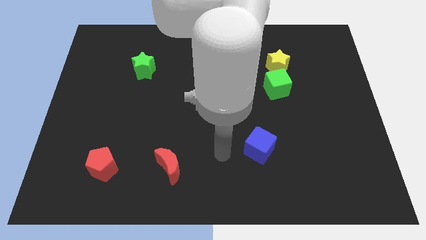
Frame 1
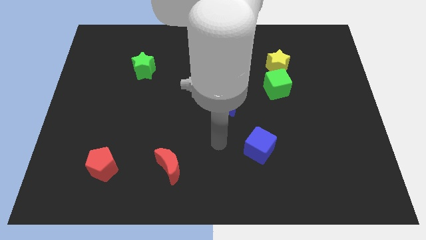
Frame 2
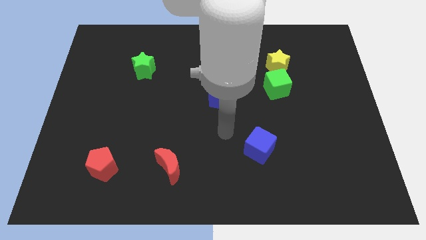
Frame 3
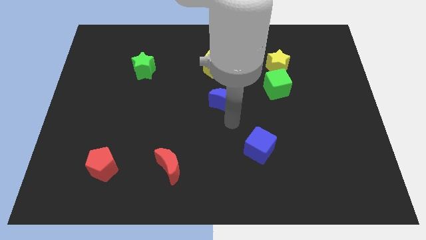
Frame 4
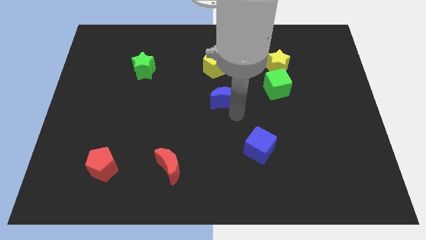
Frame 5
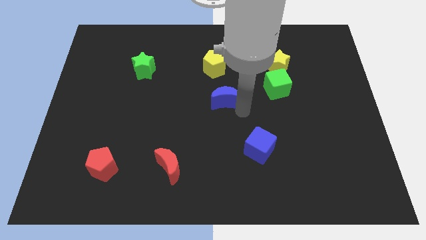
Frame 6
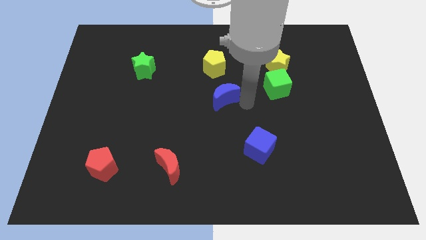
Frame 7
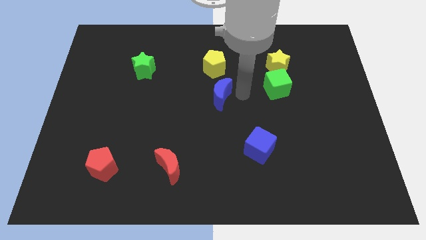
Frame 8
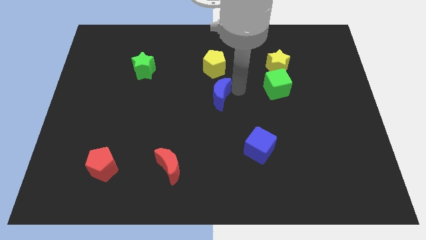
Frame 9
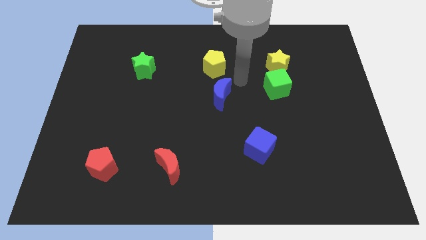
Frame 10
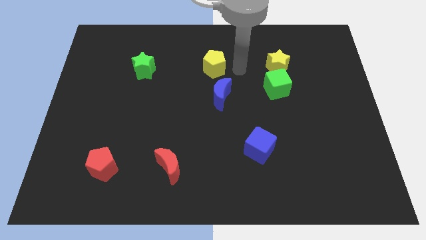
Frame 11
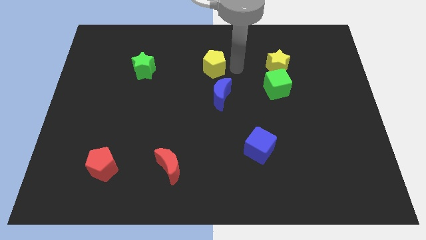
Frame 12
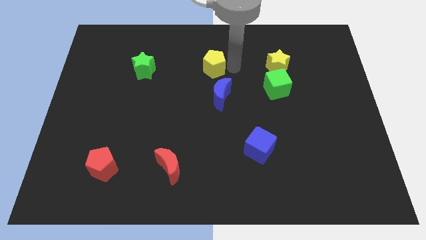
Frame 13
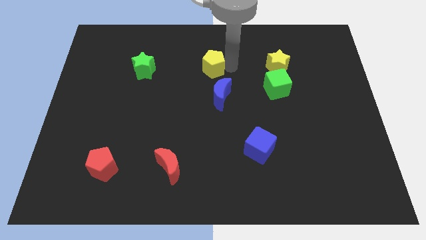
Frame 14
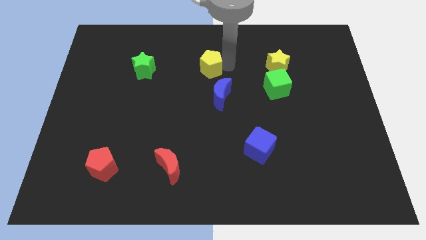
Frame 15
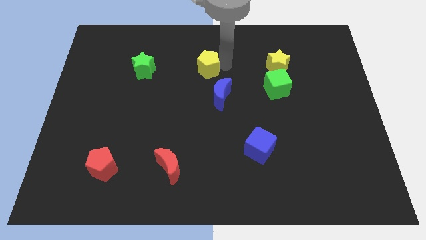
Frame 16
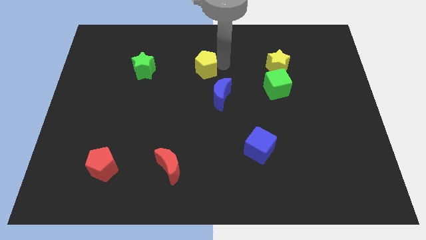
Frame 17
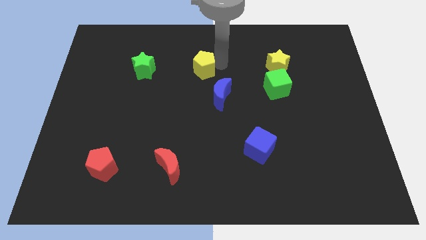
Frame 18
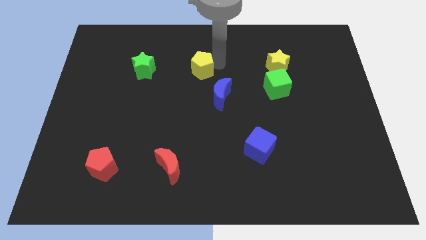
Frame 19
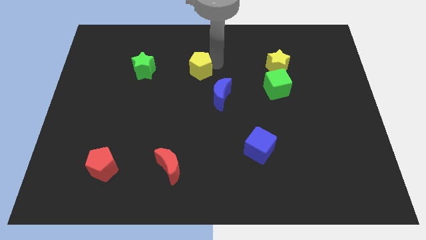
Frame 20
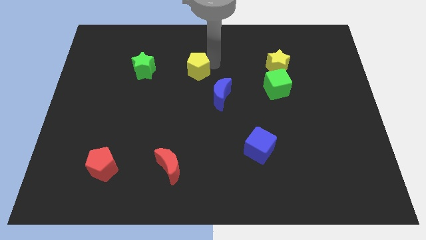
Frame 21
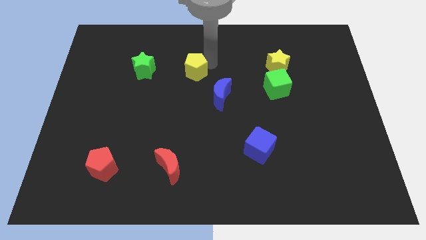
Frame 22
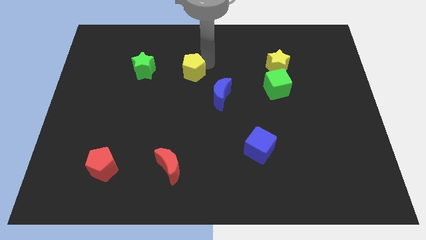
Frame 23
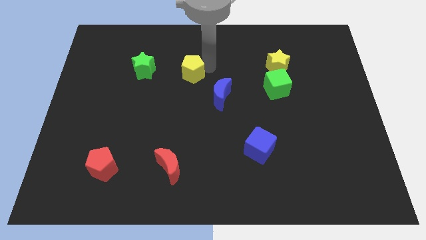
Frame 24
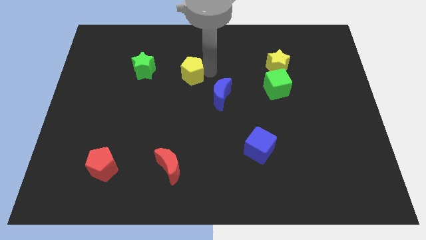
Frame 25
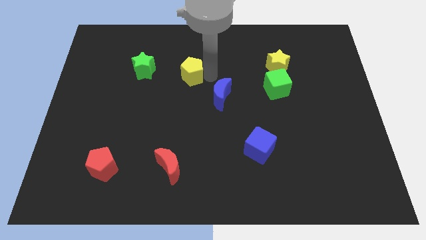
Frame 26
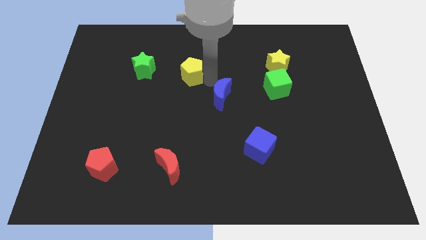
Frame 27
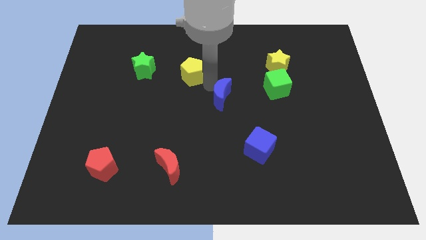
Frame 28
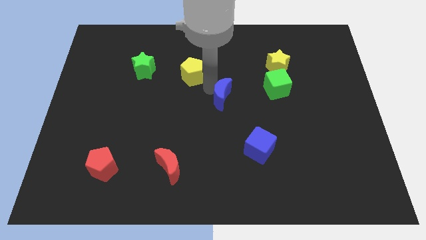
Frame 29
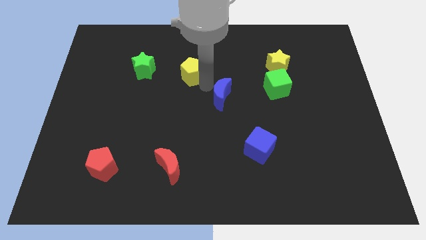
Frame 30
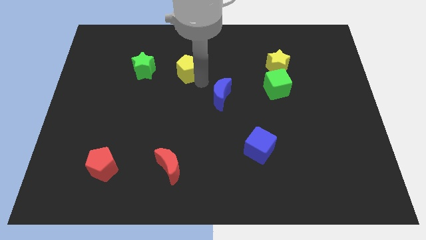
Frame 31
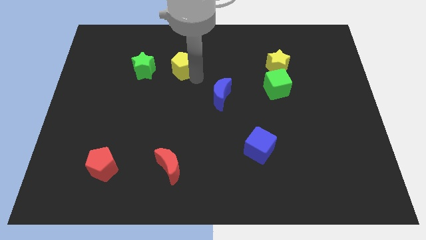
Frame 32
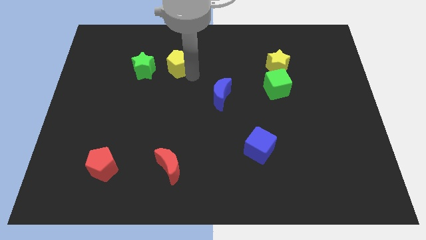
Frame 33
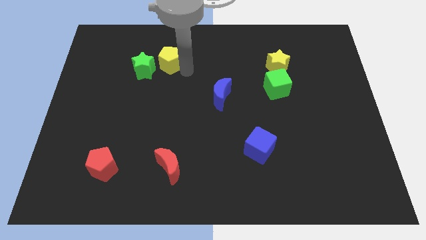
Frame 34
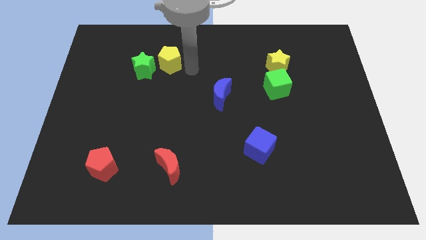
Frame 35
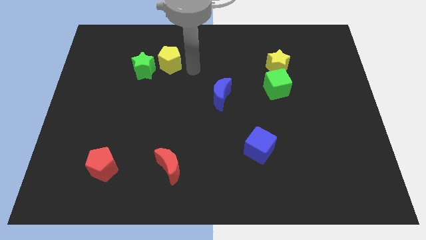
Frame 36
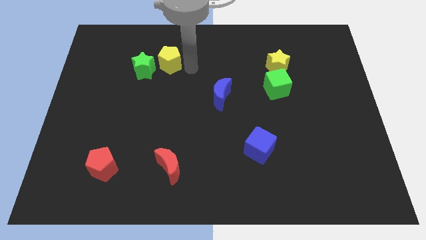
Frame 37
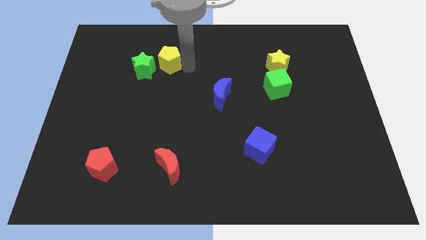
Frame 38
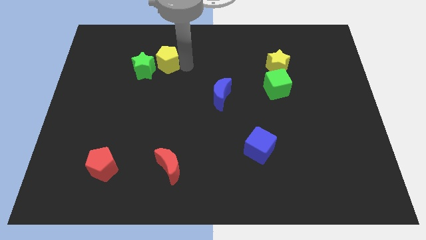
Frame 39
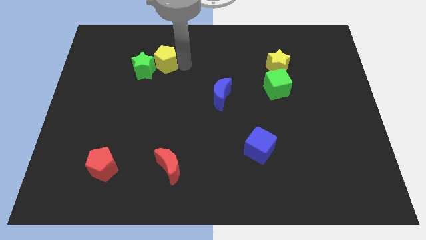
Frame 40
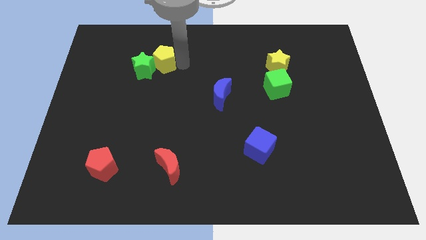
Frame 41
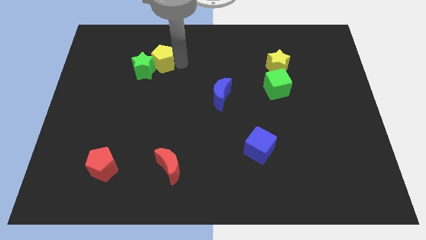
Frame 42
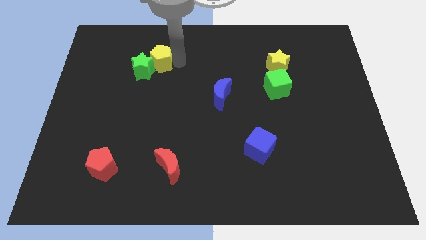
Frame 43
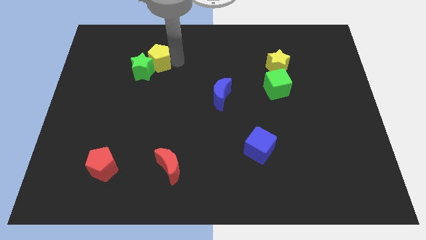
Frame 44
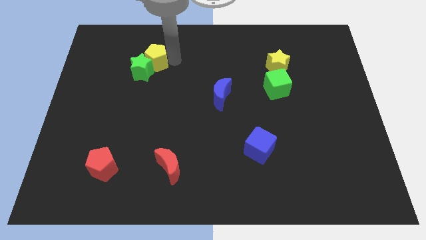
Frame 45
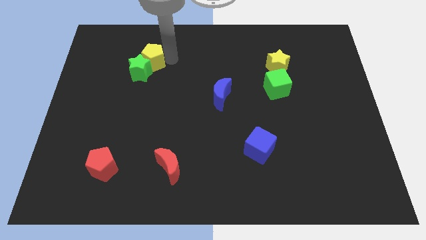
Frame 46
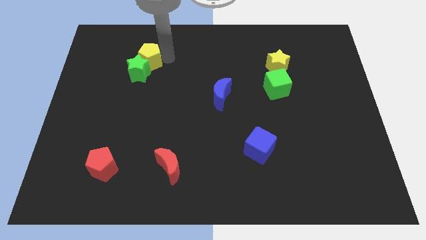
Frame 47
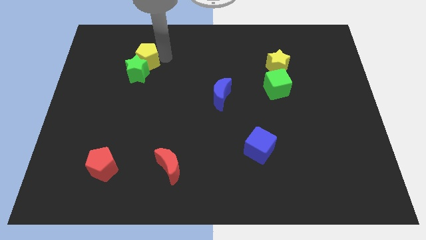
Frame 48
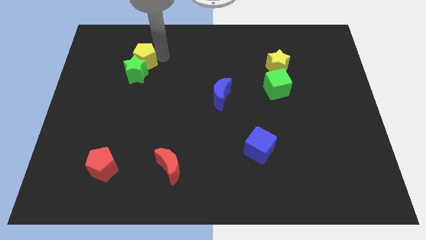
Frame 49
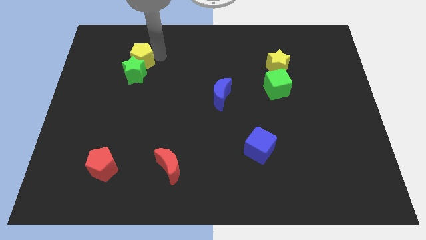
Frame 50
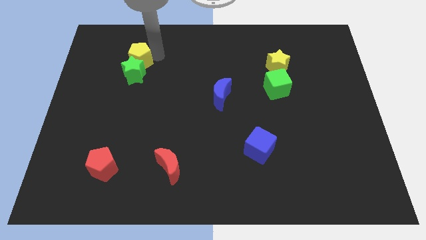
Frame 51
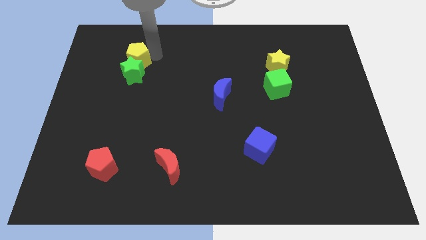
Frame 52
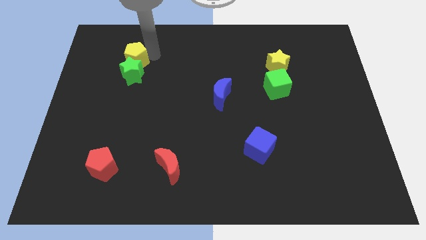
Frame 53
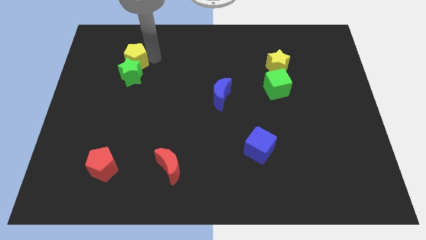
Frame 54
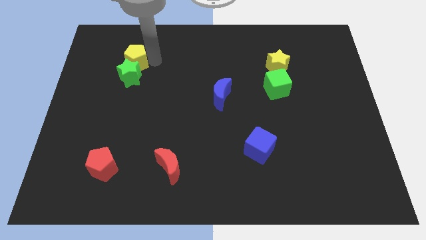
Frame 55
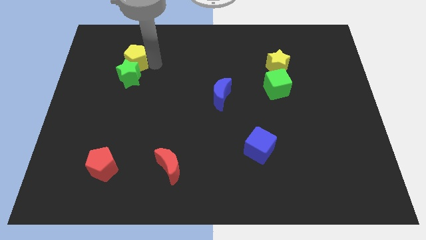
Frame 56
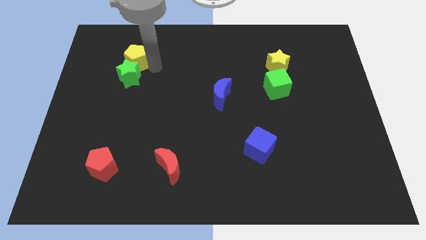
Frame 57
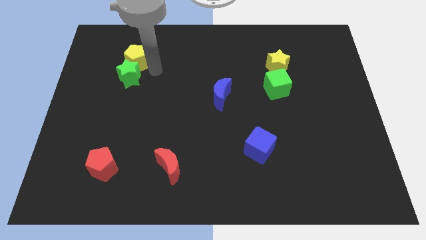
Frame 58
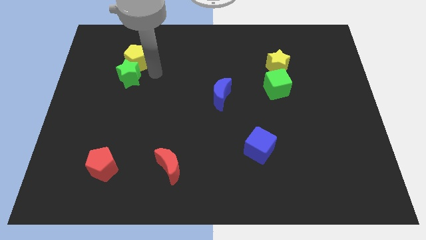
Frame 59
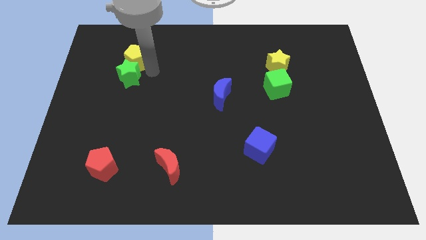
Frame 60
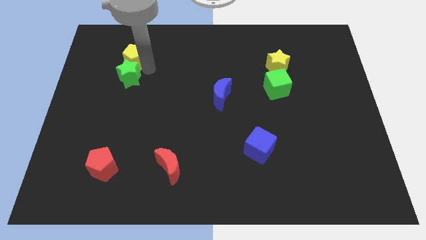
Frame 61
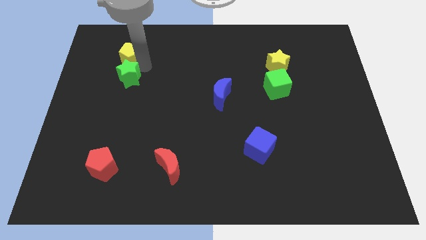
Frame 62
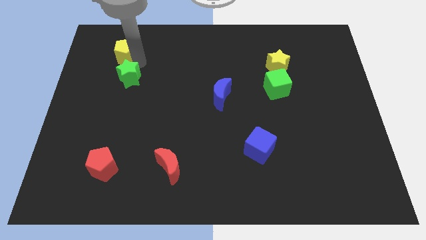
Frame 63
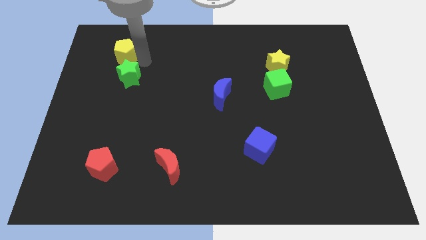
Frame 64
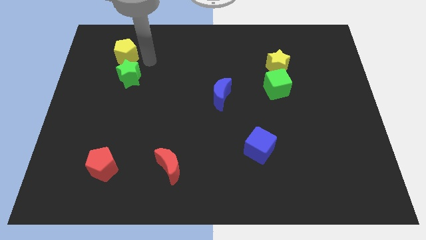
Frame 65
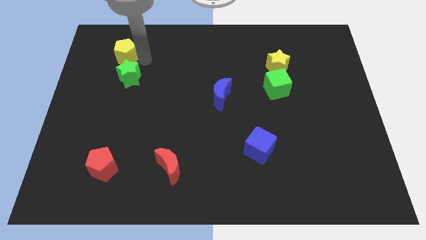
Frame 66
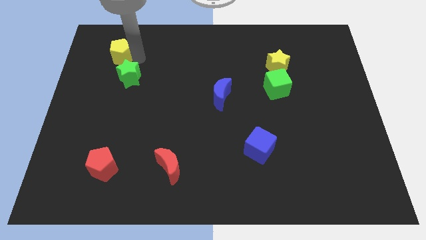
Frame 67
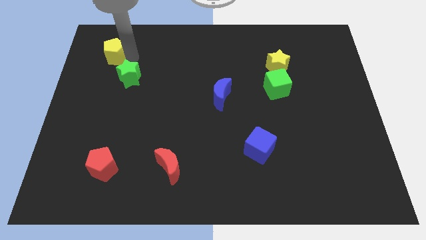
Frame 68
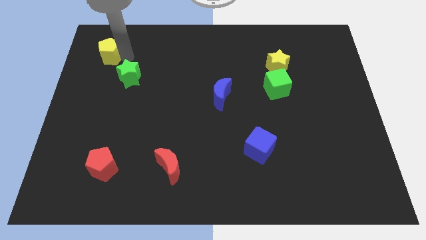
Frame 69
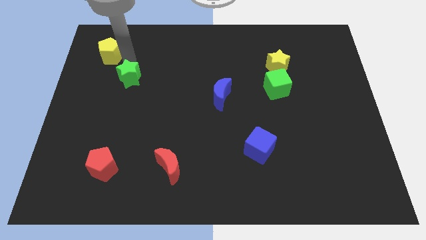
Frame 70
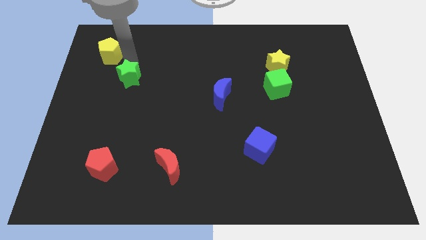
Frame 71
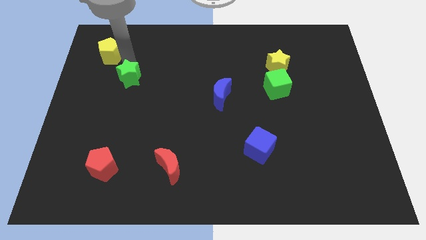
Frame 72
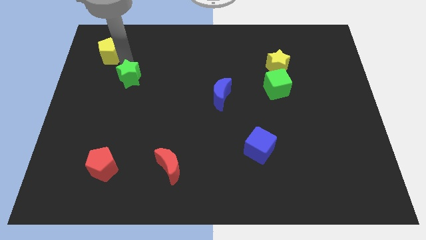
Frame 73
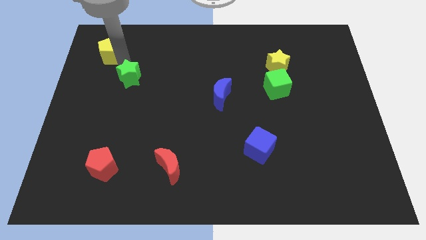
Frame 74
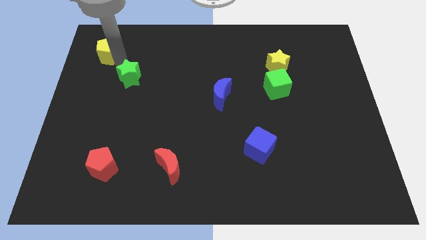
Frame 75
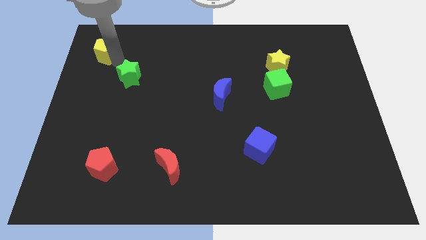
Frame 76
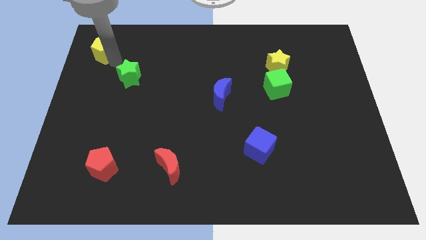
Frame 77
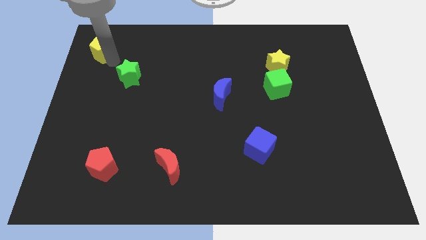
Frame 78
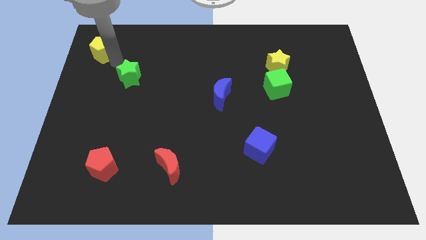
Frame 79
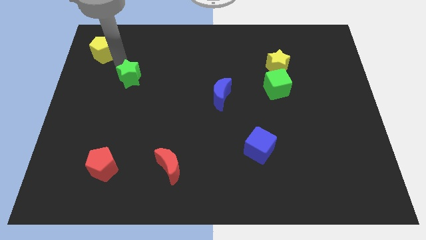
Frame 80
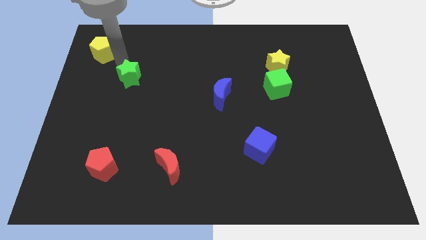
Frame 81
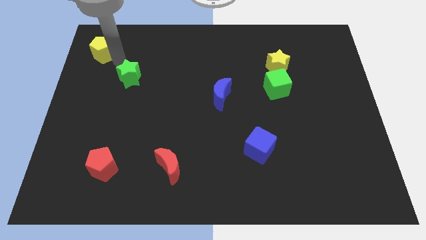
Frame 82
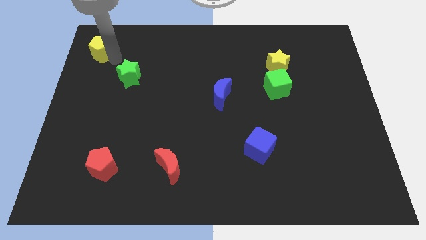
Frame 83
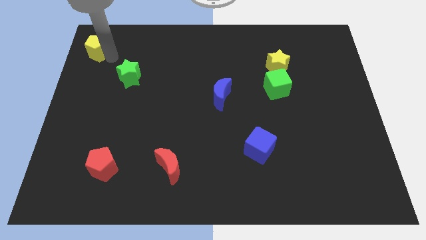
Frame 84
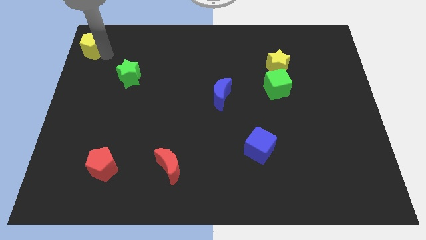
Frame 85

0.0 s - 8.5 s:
move the yellow pentagon to the upper left corner
